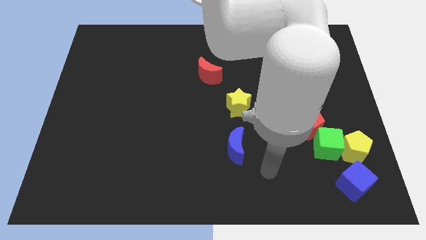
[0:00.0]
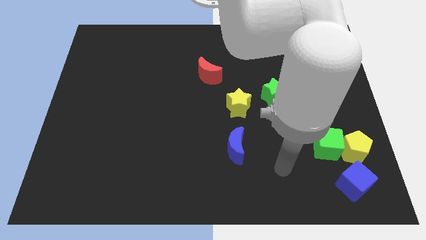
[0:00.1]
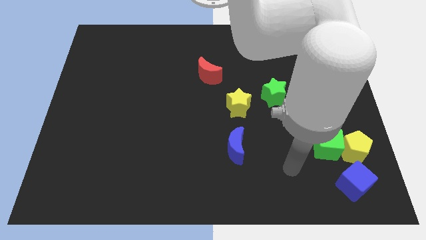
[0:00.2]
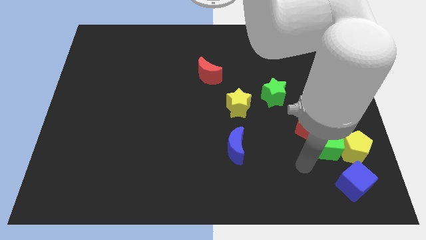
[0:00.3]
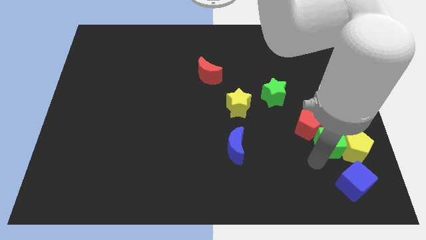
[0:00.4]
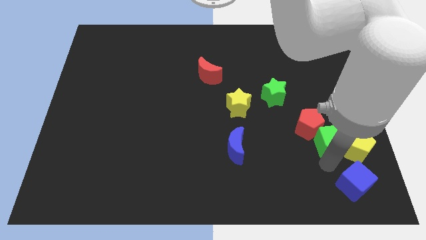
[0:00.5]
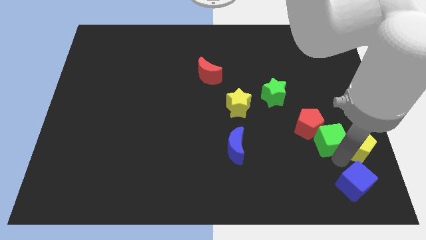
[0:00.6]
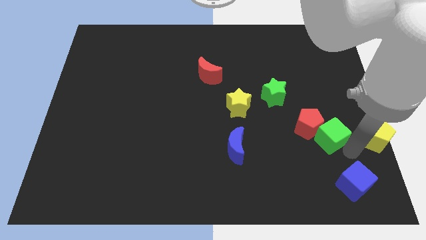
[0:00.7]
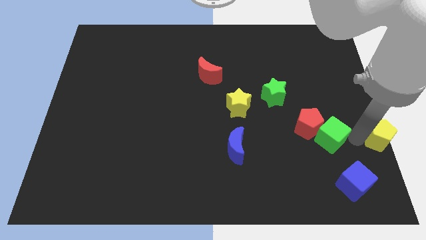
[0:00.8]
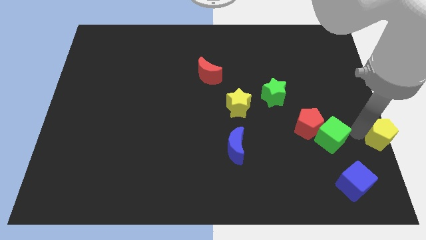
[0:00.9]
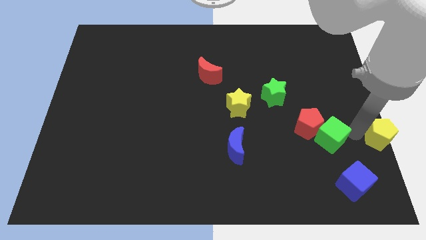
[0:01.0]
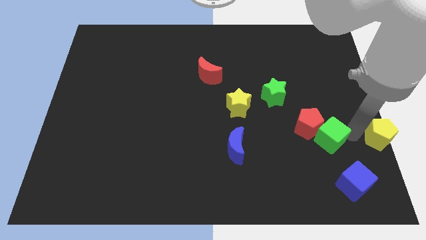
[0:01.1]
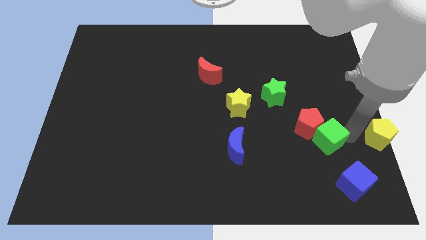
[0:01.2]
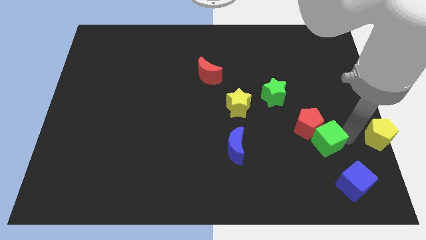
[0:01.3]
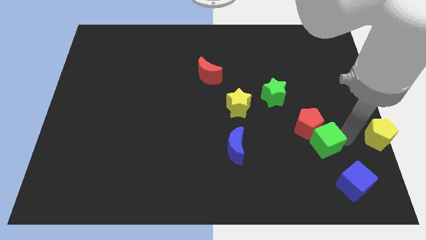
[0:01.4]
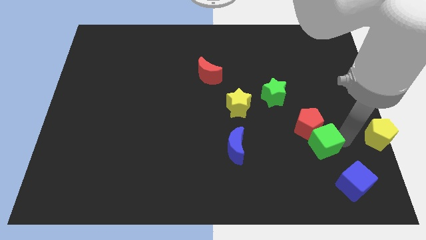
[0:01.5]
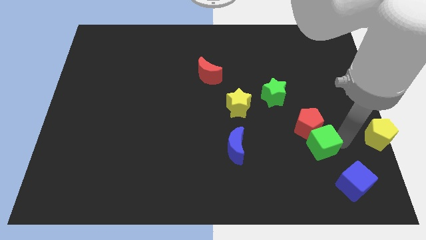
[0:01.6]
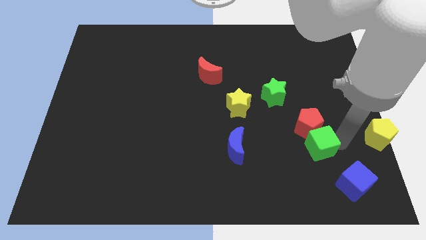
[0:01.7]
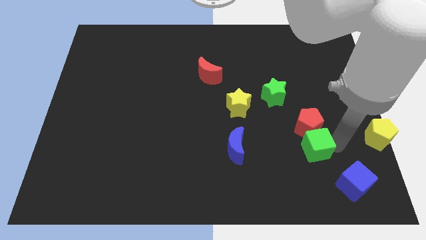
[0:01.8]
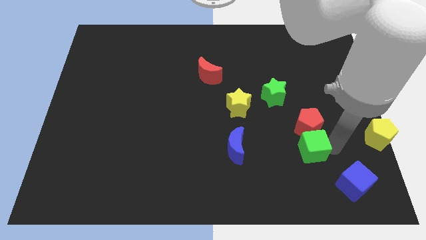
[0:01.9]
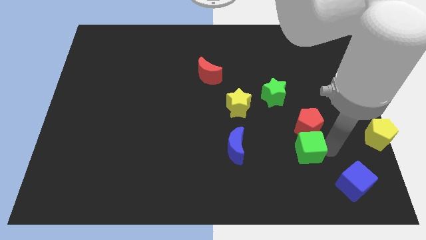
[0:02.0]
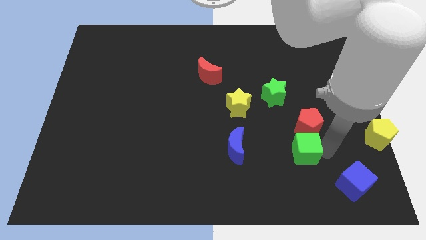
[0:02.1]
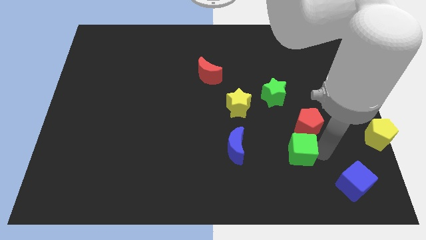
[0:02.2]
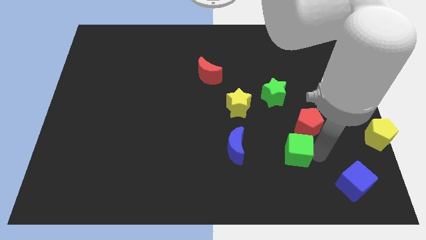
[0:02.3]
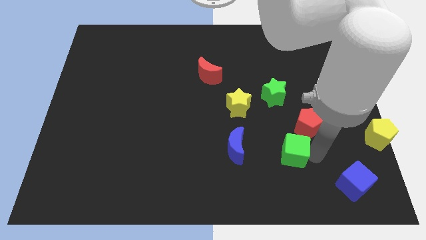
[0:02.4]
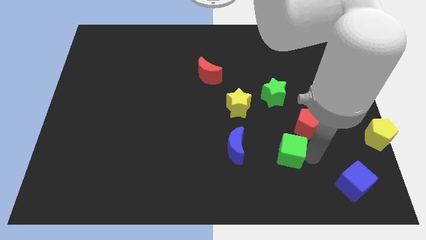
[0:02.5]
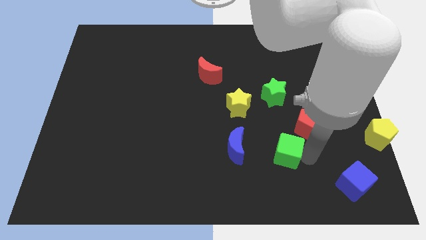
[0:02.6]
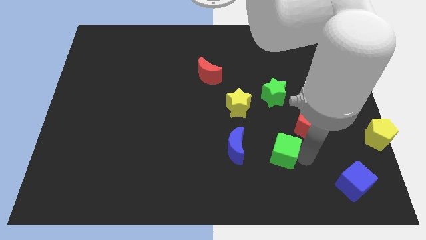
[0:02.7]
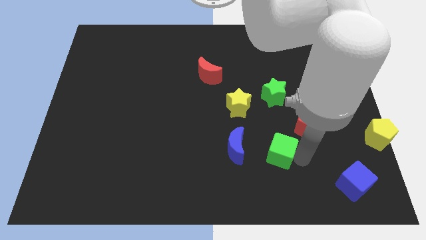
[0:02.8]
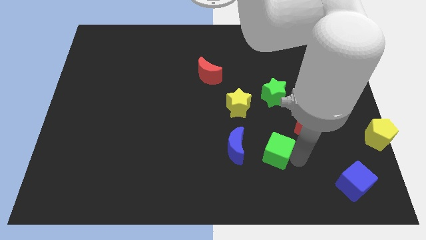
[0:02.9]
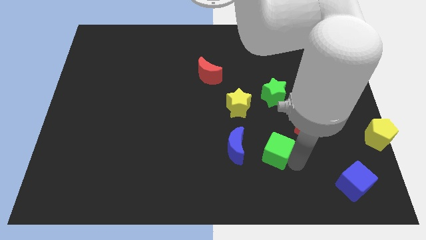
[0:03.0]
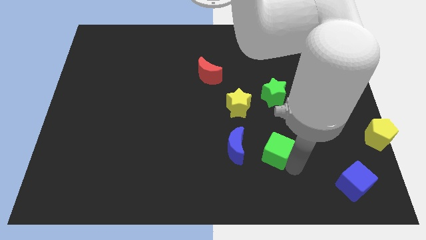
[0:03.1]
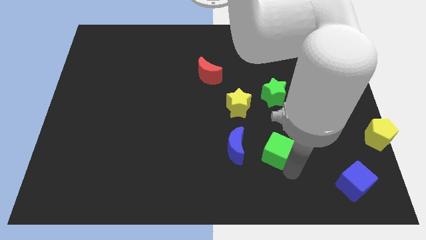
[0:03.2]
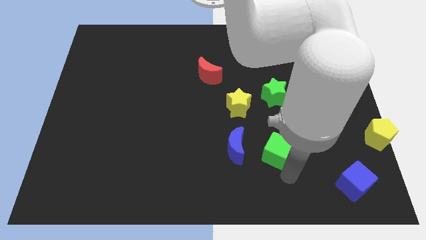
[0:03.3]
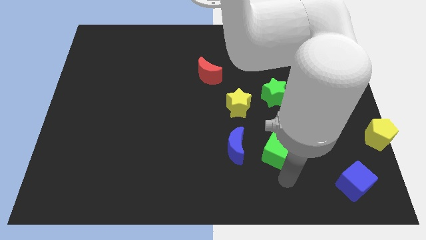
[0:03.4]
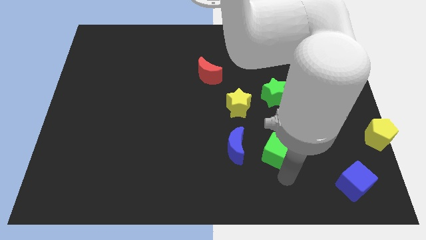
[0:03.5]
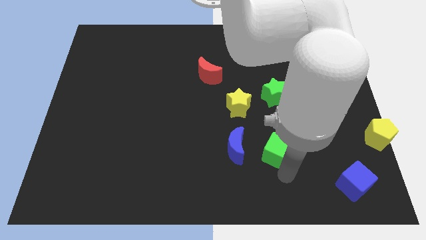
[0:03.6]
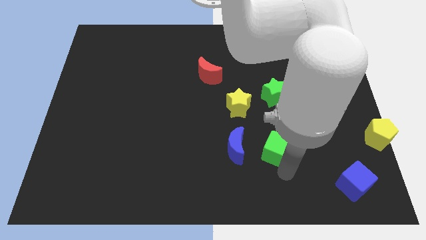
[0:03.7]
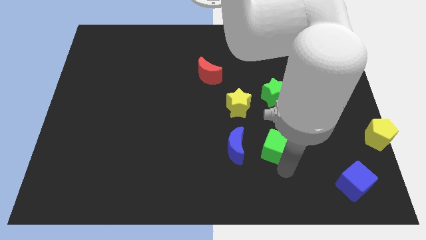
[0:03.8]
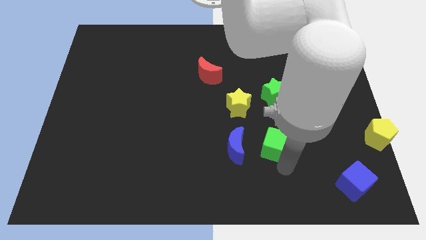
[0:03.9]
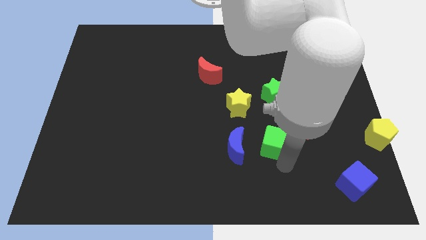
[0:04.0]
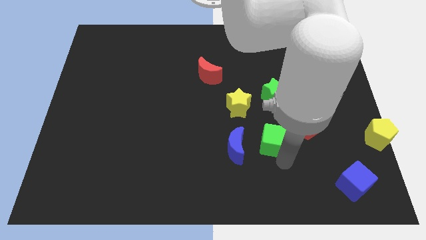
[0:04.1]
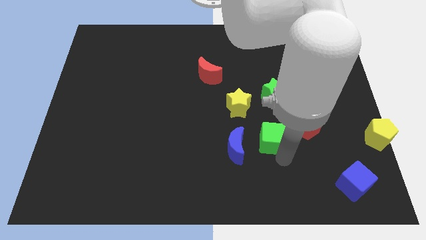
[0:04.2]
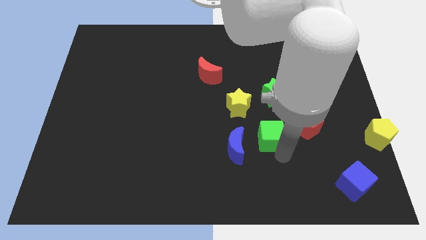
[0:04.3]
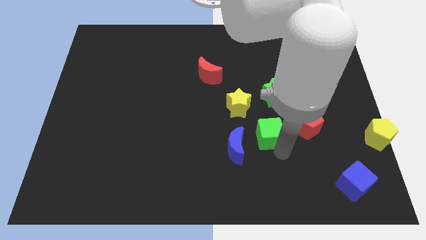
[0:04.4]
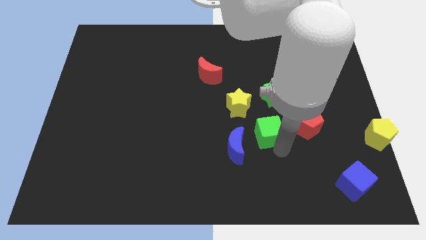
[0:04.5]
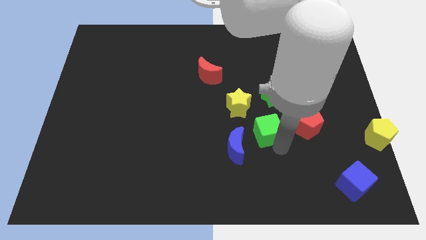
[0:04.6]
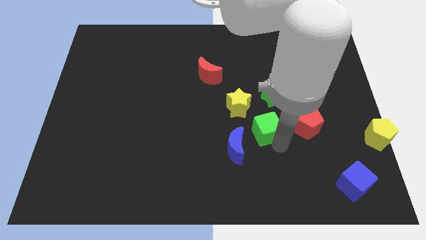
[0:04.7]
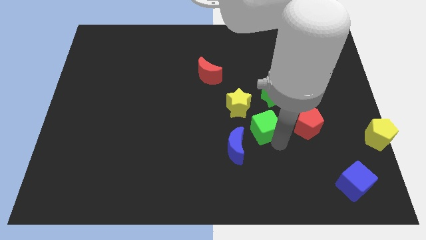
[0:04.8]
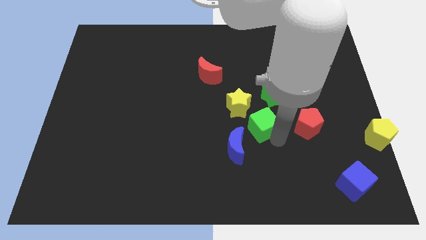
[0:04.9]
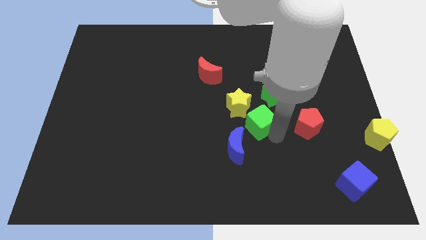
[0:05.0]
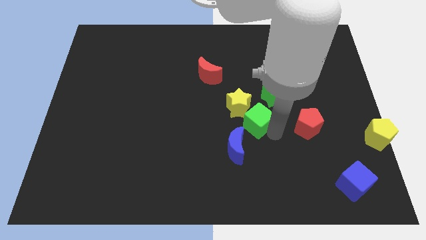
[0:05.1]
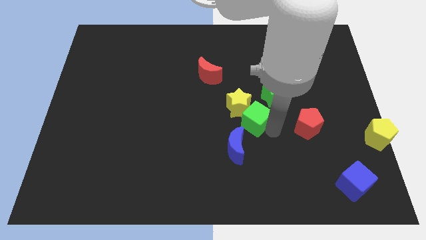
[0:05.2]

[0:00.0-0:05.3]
push the green cube towards the yellow star

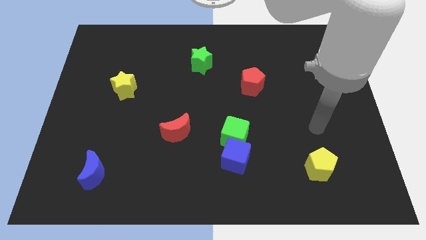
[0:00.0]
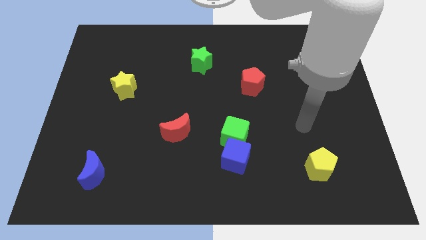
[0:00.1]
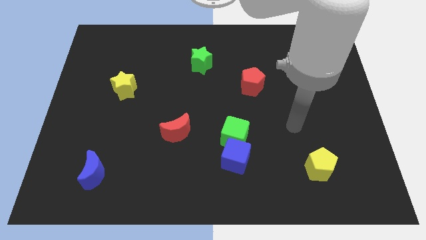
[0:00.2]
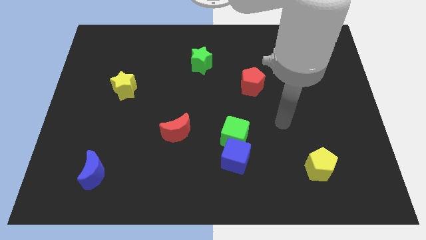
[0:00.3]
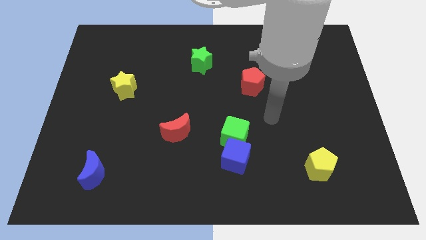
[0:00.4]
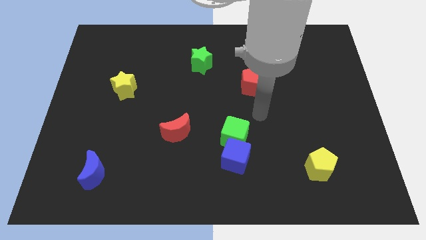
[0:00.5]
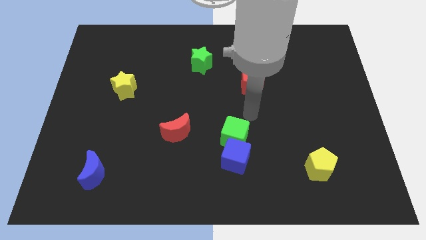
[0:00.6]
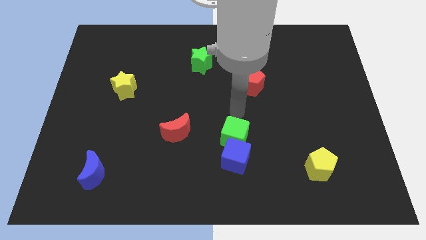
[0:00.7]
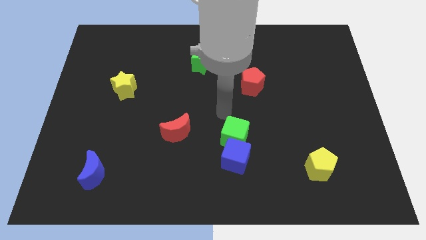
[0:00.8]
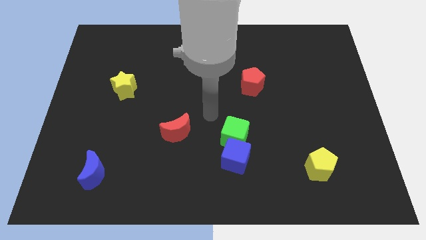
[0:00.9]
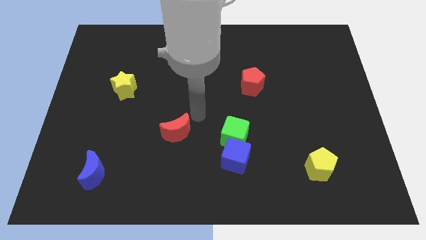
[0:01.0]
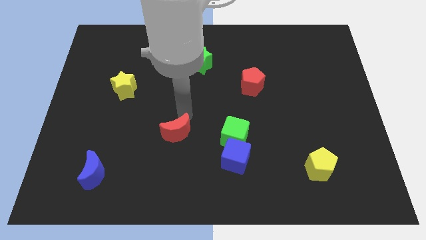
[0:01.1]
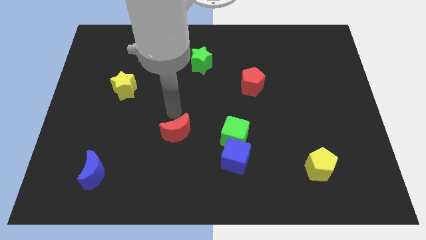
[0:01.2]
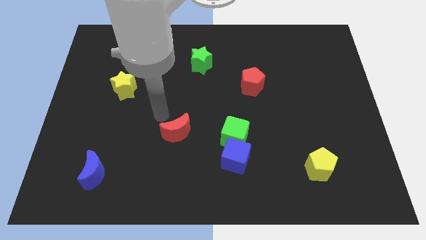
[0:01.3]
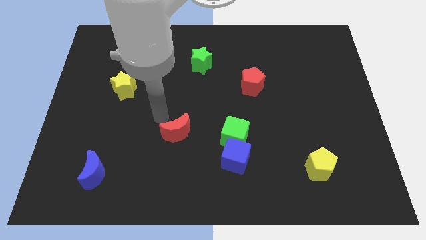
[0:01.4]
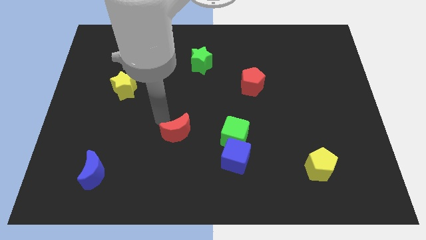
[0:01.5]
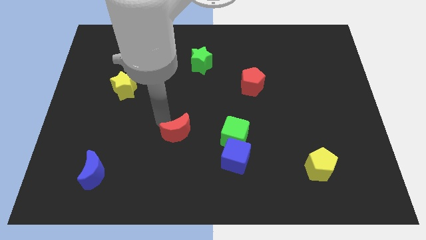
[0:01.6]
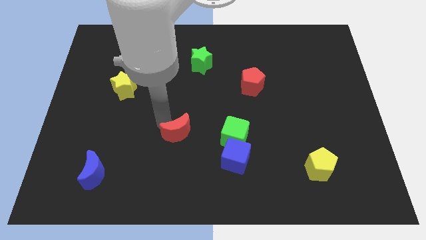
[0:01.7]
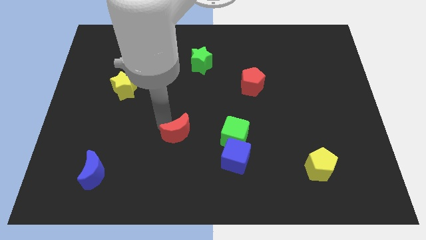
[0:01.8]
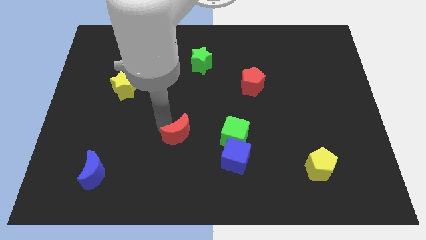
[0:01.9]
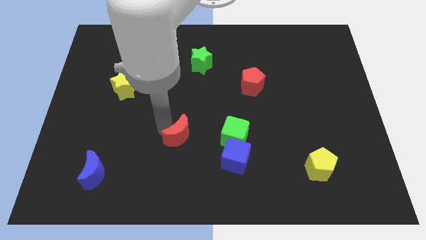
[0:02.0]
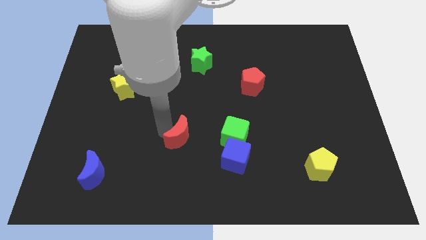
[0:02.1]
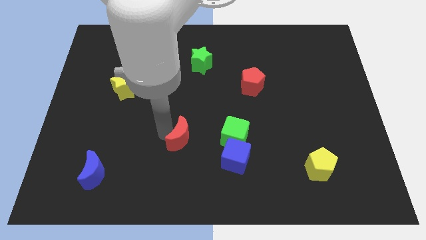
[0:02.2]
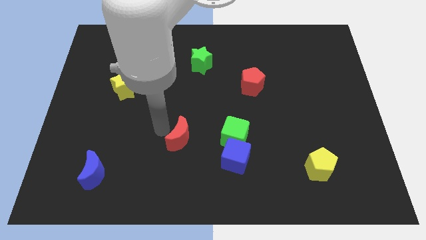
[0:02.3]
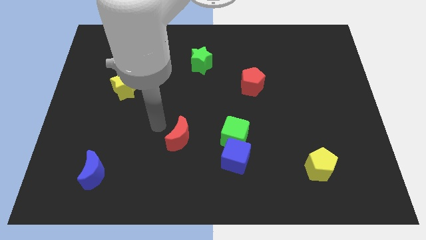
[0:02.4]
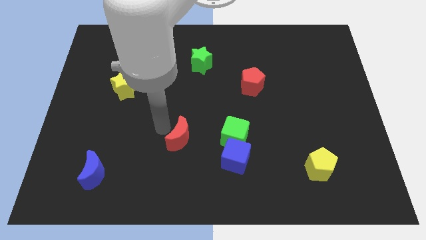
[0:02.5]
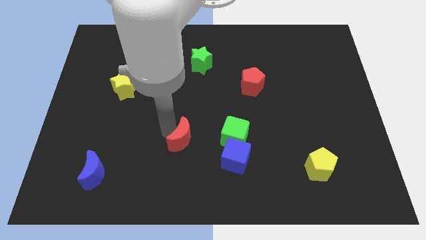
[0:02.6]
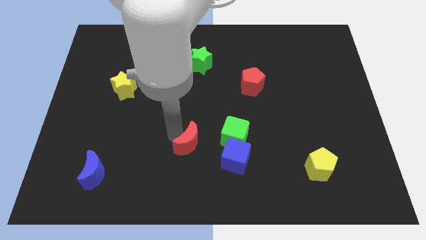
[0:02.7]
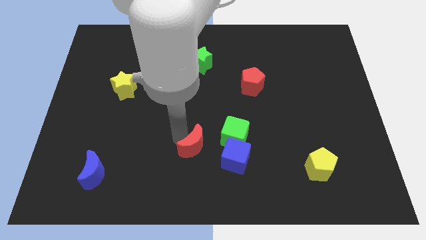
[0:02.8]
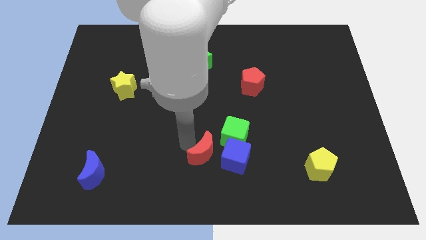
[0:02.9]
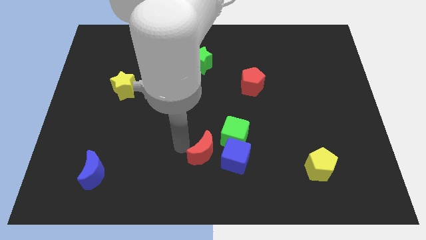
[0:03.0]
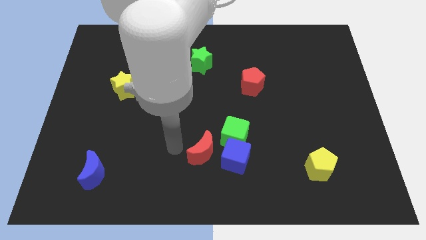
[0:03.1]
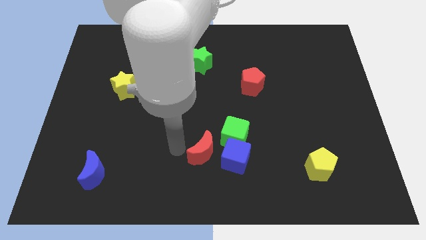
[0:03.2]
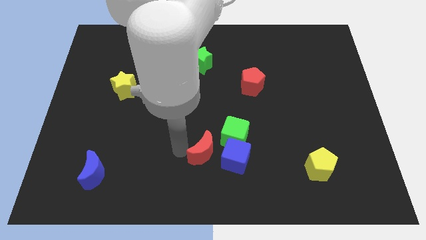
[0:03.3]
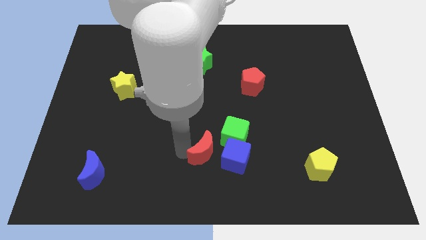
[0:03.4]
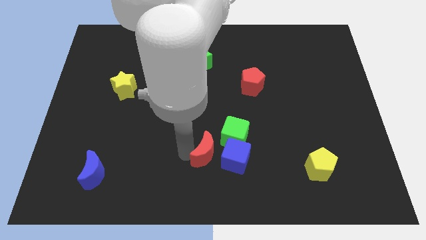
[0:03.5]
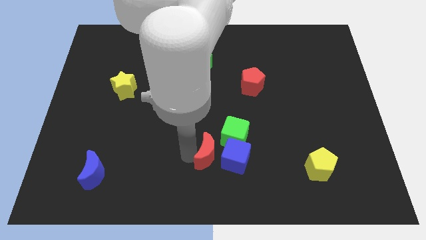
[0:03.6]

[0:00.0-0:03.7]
push the red moon next to the blue cube
